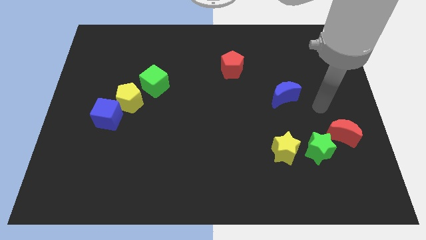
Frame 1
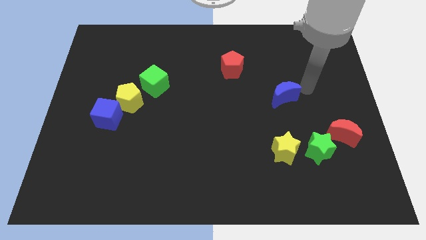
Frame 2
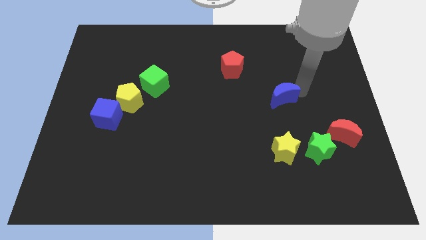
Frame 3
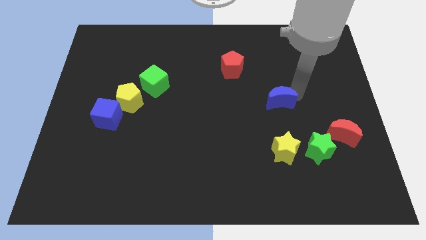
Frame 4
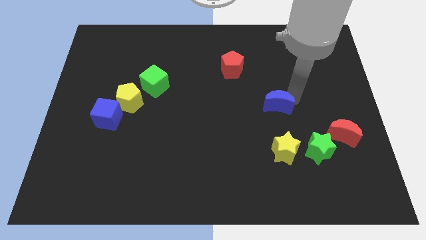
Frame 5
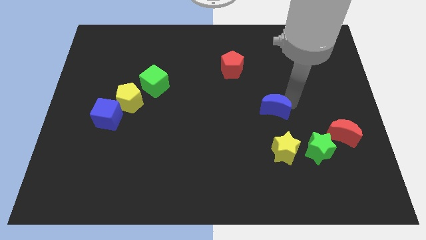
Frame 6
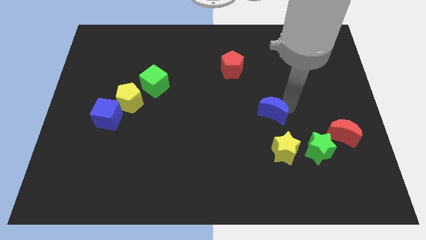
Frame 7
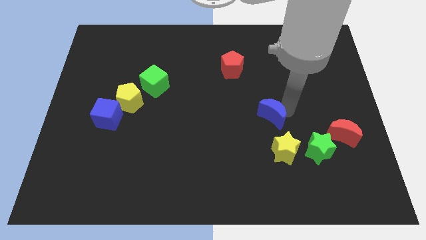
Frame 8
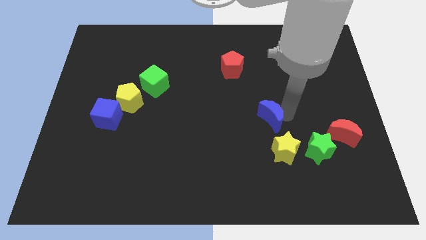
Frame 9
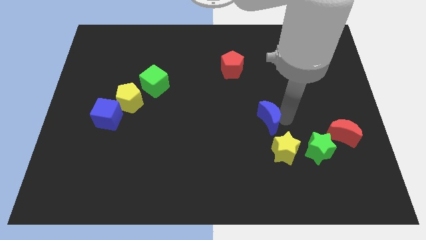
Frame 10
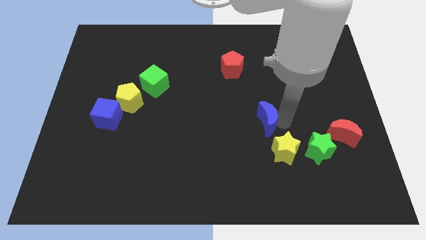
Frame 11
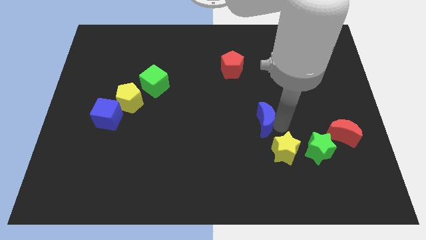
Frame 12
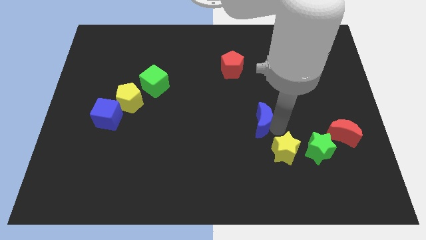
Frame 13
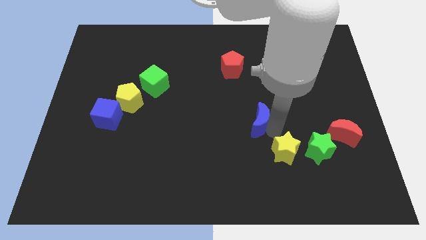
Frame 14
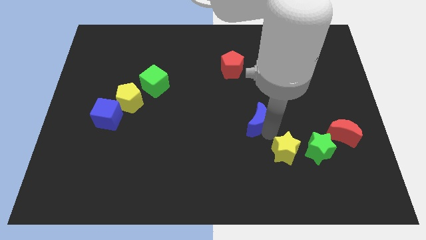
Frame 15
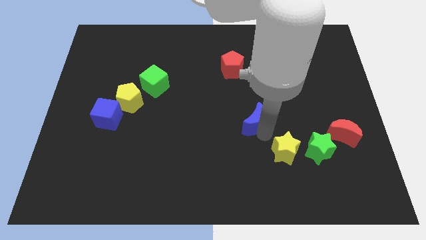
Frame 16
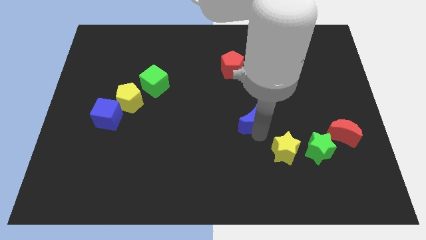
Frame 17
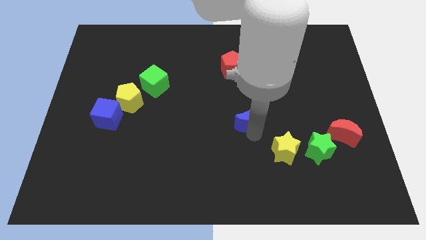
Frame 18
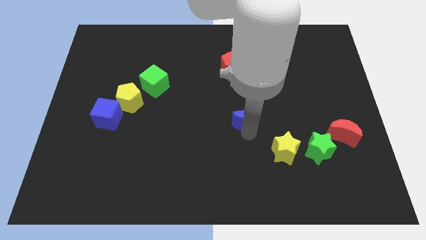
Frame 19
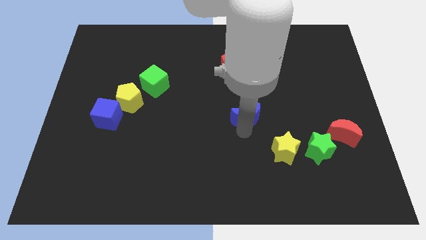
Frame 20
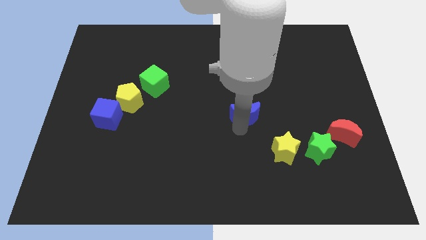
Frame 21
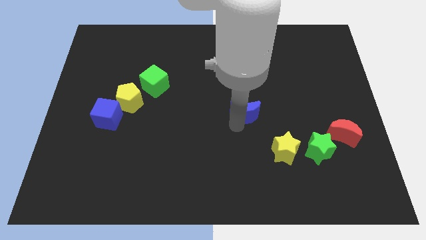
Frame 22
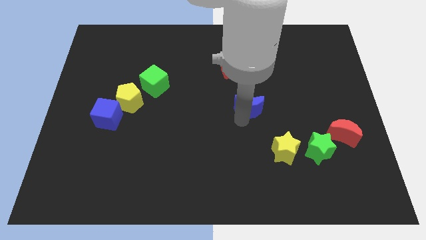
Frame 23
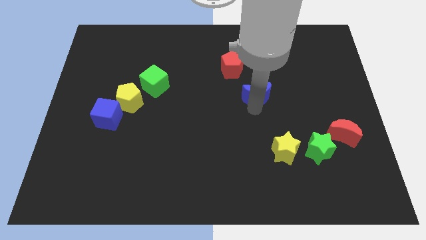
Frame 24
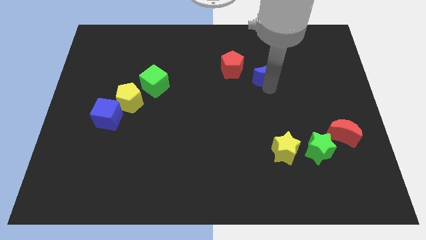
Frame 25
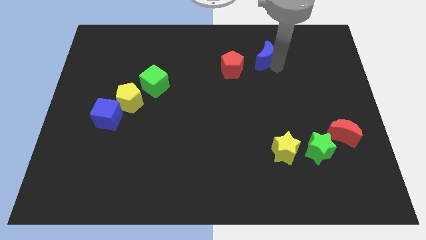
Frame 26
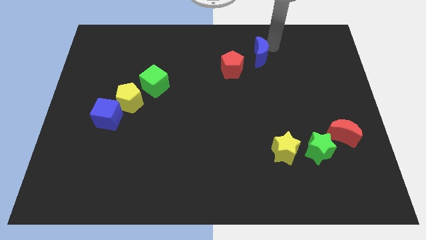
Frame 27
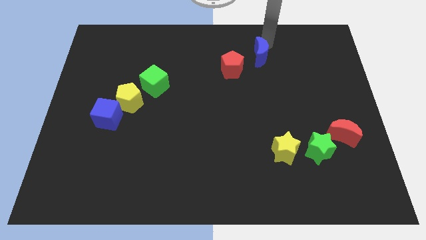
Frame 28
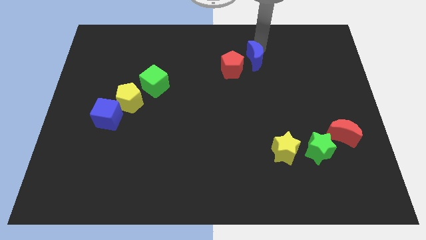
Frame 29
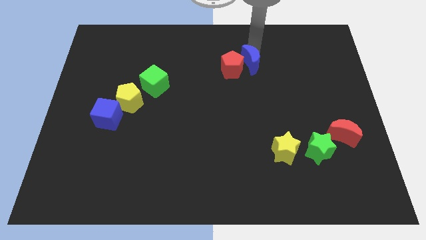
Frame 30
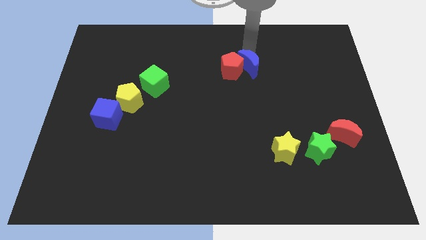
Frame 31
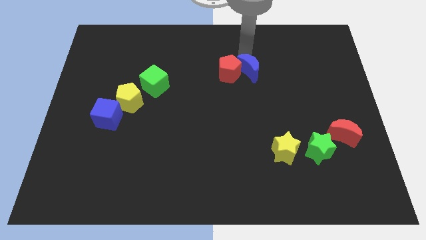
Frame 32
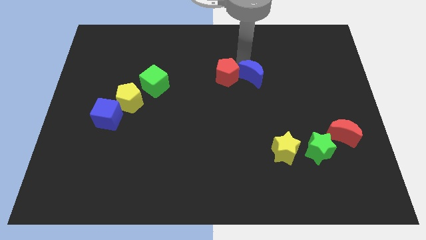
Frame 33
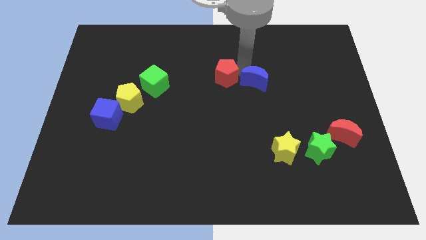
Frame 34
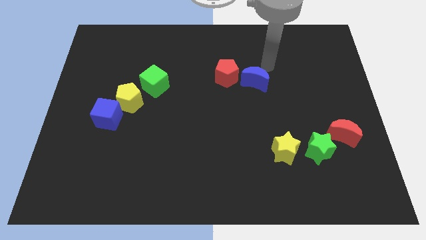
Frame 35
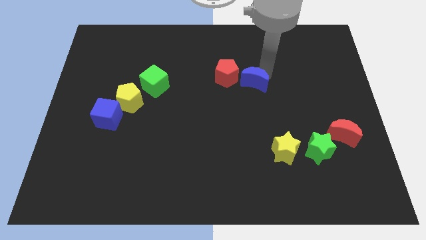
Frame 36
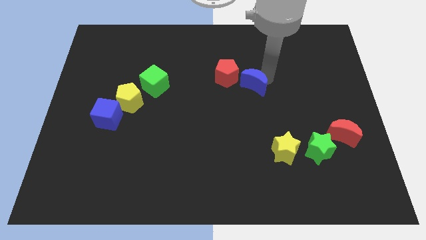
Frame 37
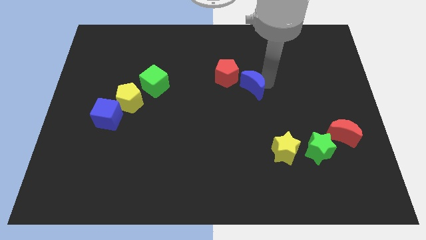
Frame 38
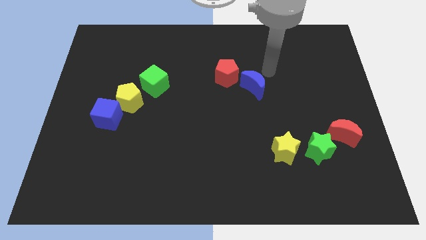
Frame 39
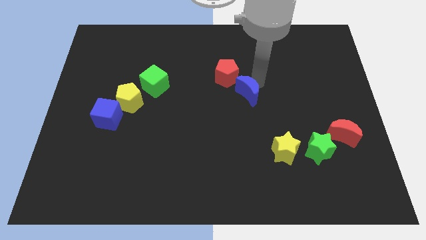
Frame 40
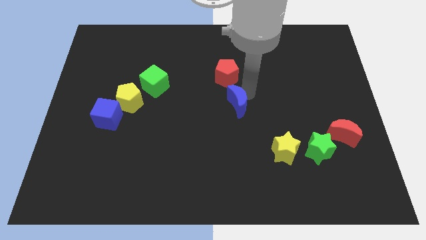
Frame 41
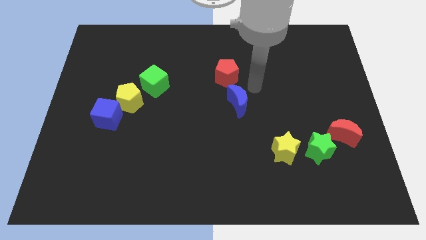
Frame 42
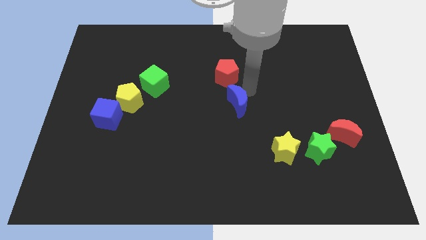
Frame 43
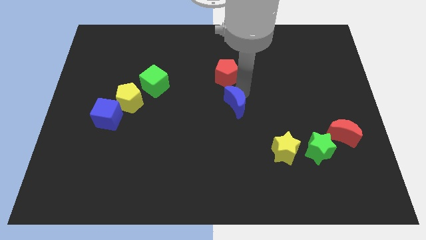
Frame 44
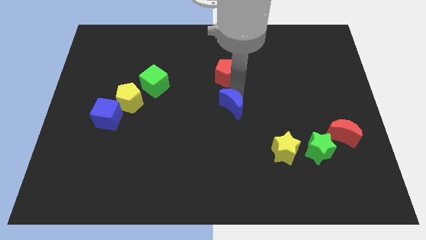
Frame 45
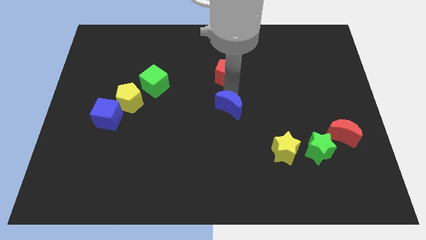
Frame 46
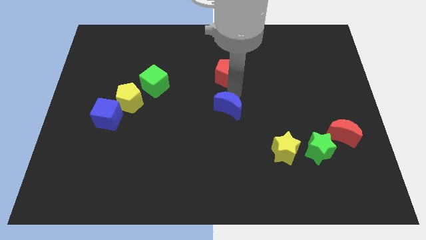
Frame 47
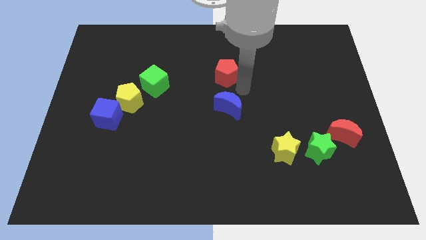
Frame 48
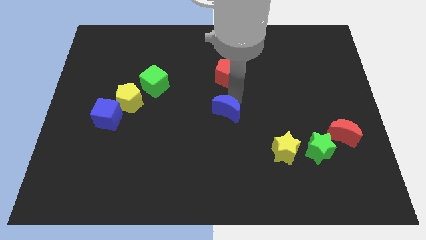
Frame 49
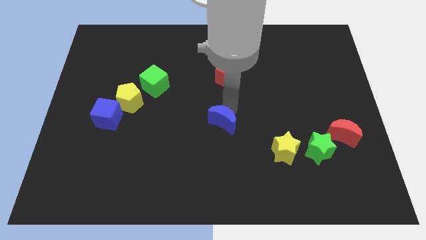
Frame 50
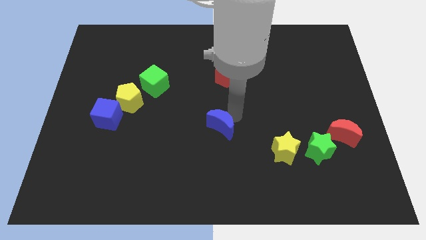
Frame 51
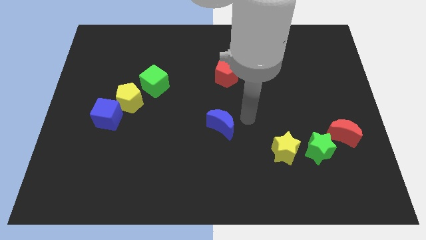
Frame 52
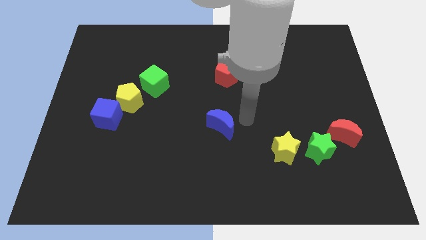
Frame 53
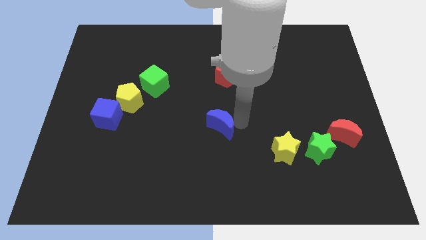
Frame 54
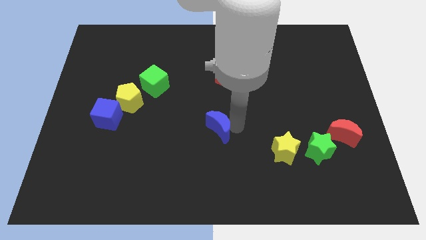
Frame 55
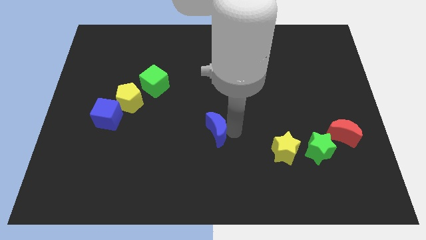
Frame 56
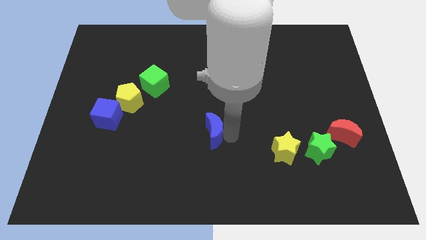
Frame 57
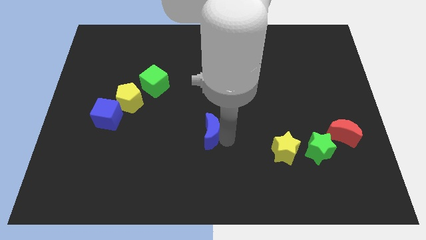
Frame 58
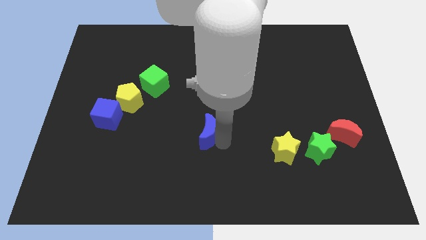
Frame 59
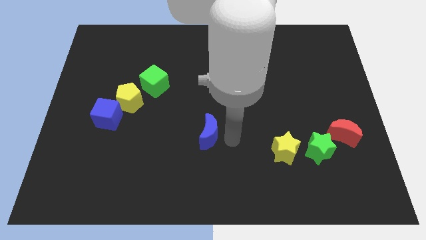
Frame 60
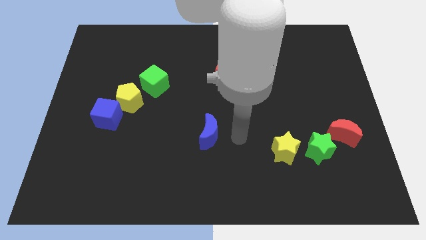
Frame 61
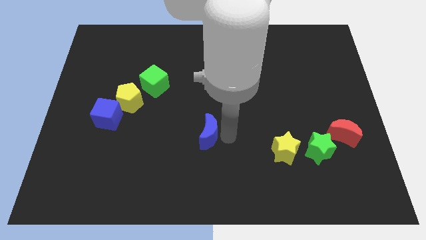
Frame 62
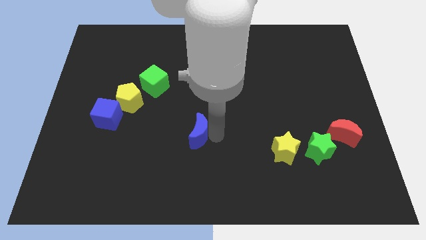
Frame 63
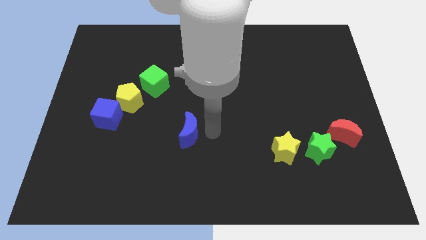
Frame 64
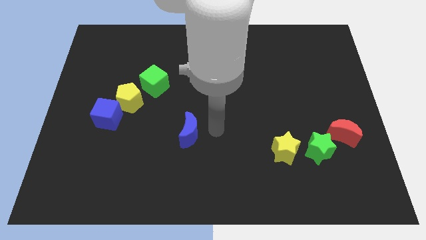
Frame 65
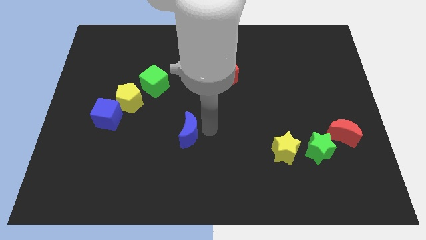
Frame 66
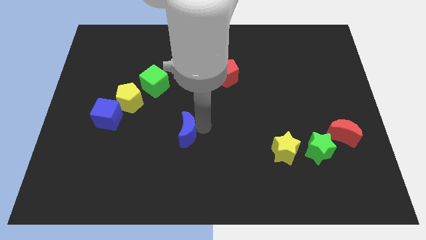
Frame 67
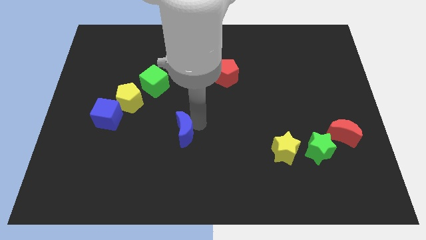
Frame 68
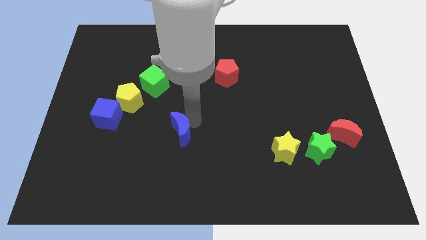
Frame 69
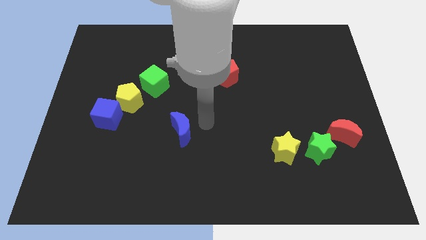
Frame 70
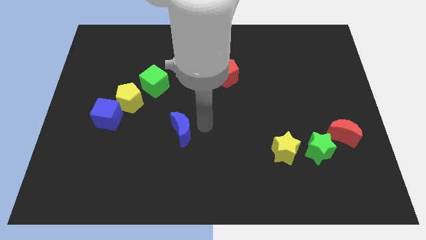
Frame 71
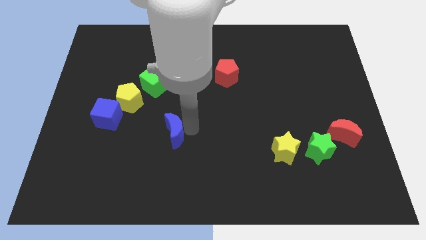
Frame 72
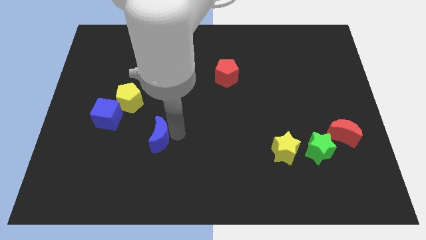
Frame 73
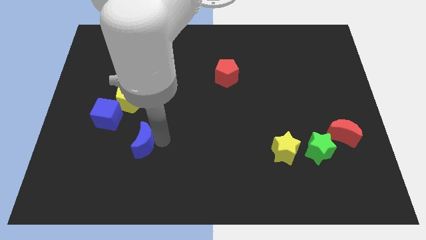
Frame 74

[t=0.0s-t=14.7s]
move the blue moon to the bottom right of the blue cube
